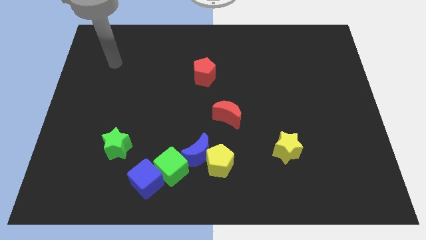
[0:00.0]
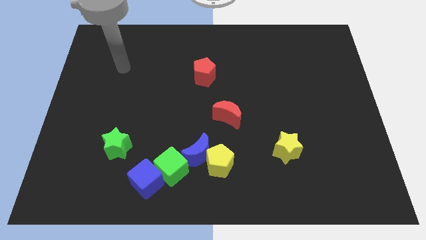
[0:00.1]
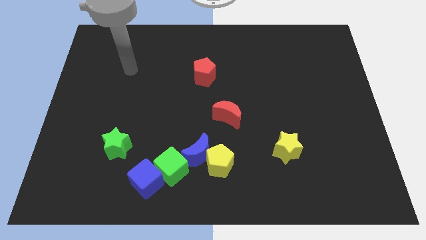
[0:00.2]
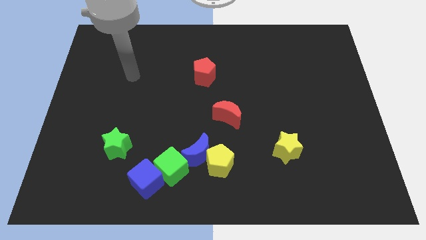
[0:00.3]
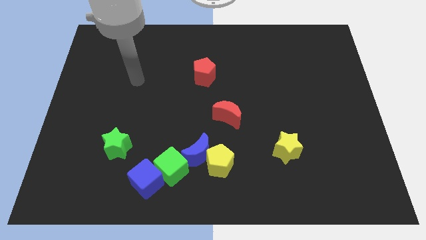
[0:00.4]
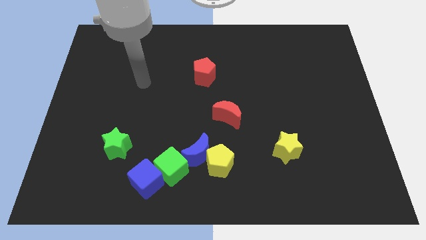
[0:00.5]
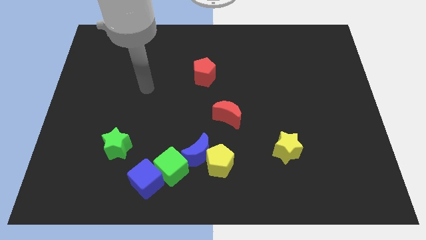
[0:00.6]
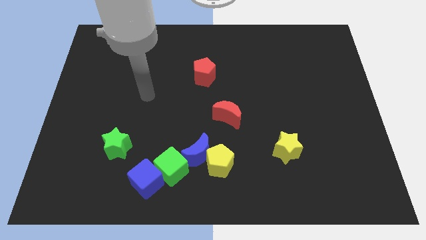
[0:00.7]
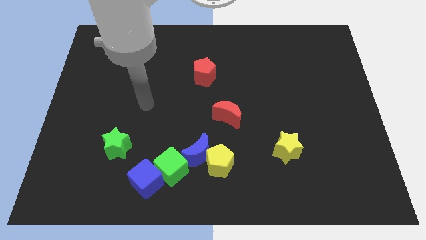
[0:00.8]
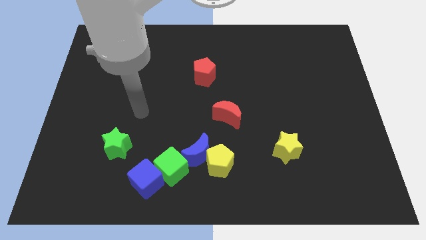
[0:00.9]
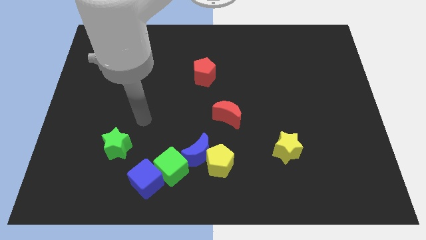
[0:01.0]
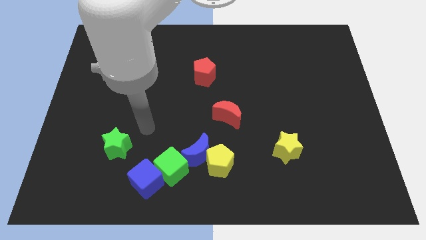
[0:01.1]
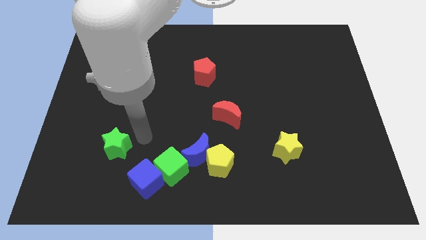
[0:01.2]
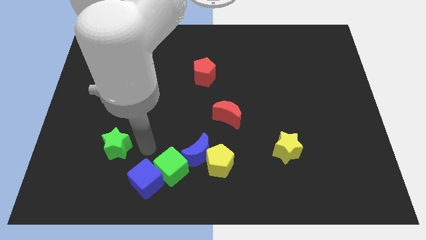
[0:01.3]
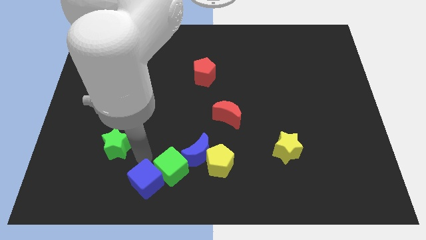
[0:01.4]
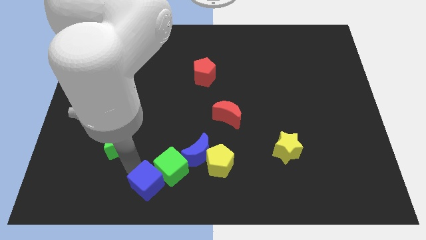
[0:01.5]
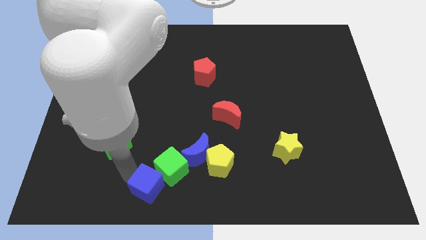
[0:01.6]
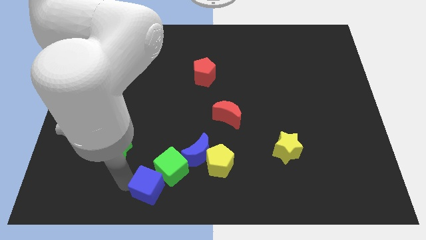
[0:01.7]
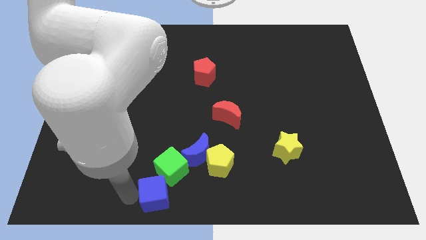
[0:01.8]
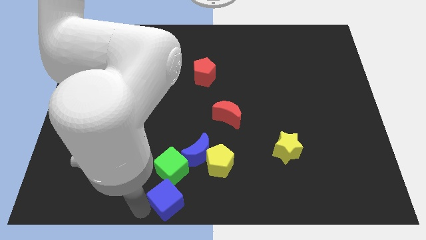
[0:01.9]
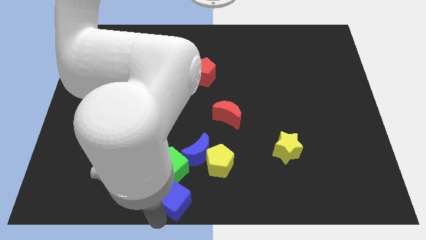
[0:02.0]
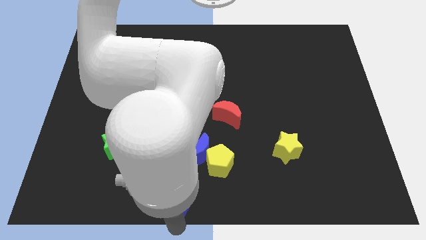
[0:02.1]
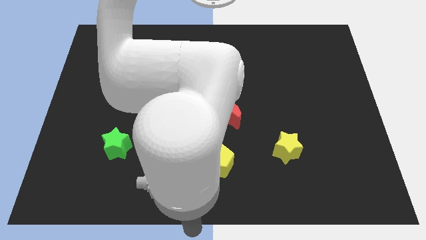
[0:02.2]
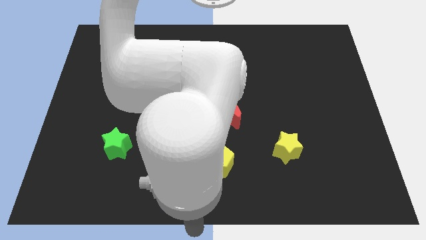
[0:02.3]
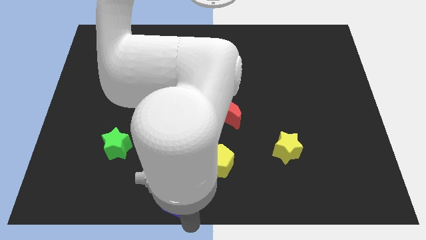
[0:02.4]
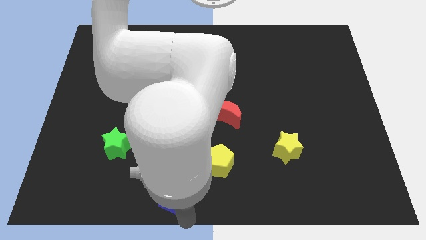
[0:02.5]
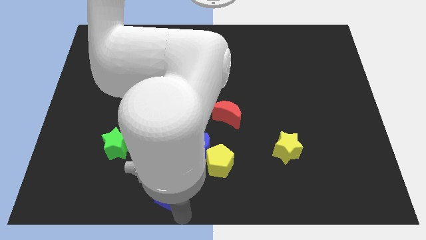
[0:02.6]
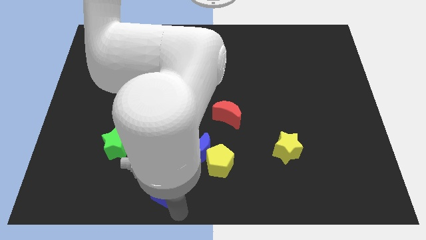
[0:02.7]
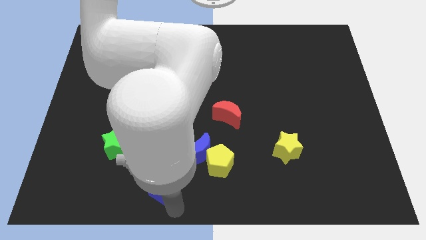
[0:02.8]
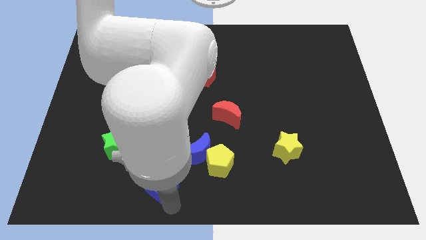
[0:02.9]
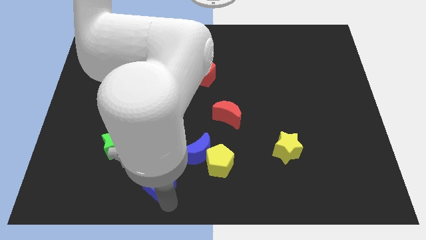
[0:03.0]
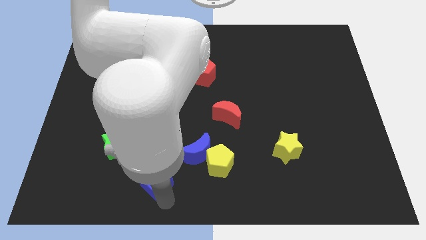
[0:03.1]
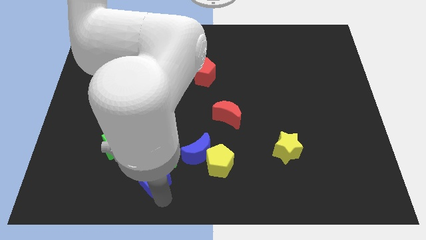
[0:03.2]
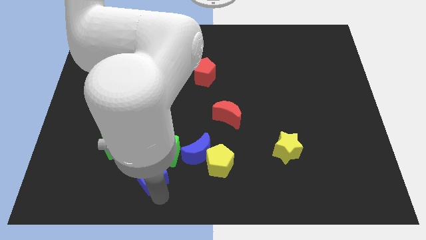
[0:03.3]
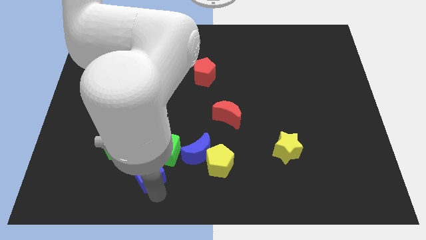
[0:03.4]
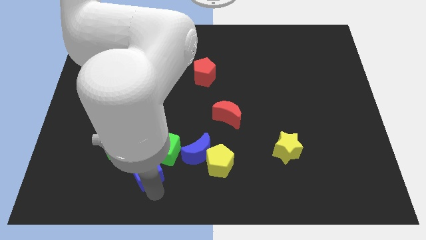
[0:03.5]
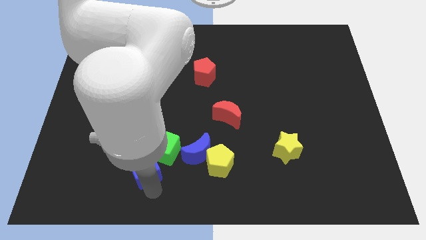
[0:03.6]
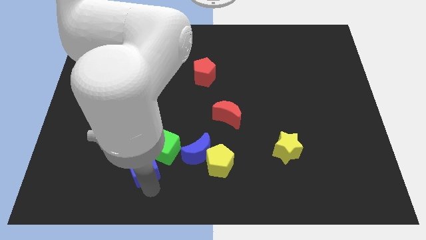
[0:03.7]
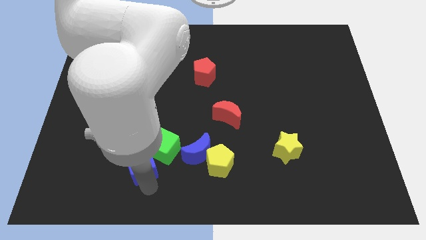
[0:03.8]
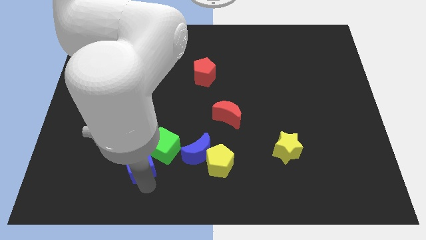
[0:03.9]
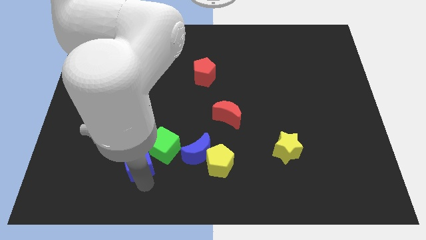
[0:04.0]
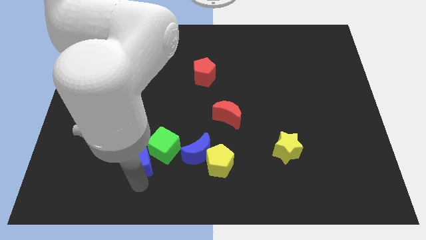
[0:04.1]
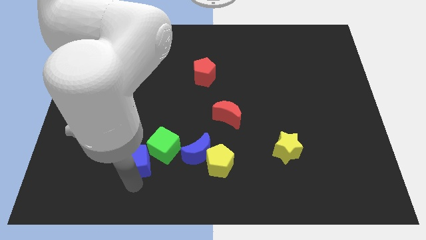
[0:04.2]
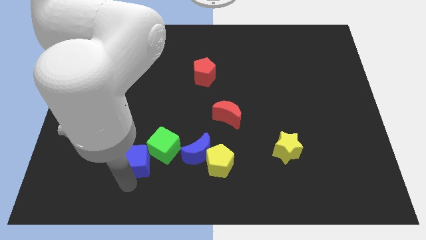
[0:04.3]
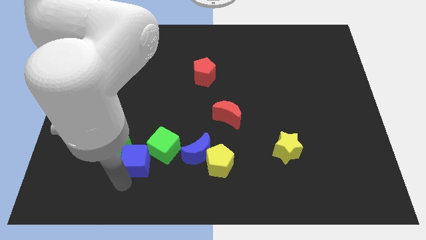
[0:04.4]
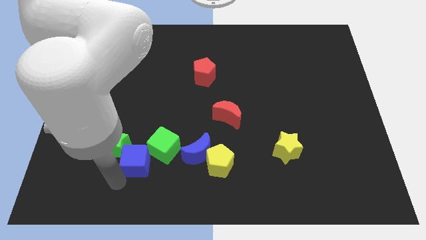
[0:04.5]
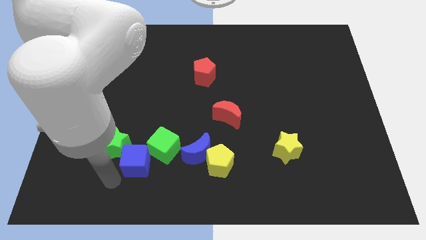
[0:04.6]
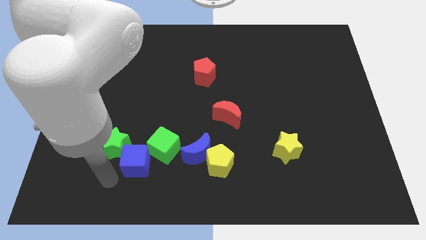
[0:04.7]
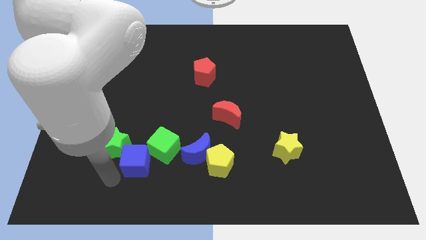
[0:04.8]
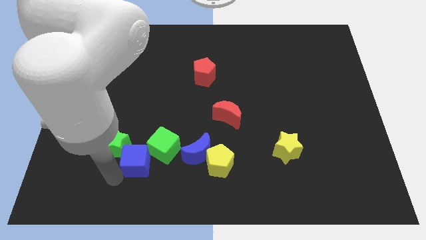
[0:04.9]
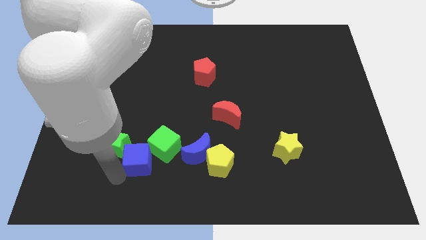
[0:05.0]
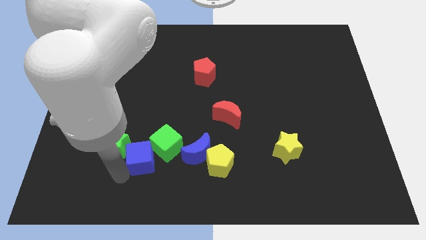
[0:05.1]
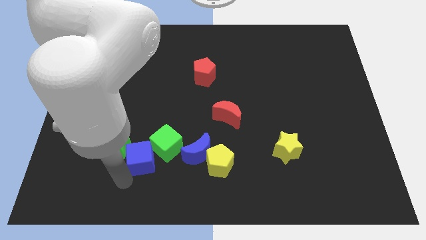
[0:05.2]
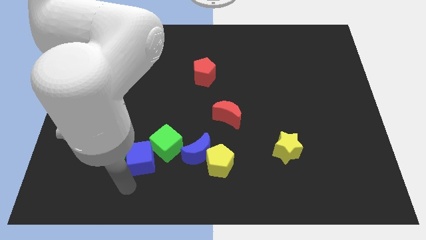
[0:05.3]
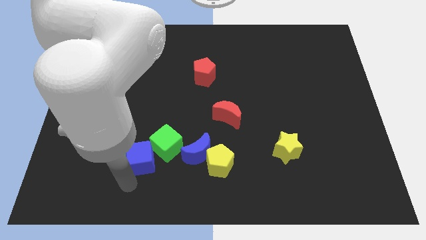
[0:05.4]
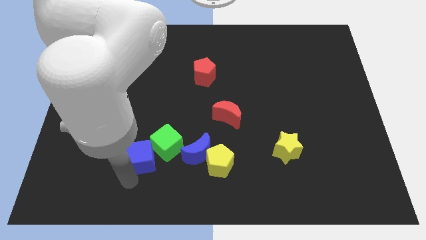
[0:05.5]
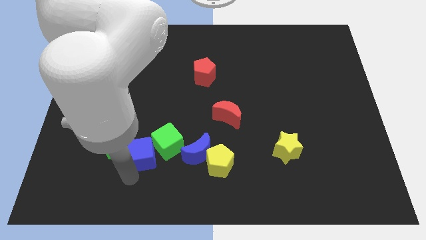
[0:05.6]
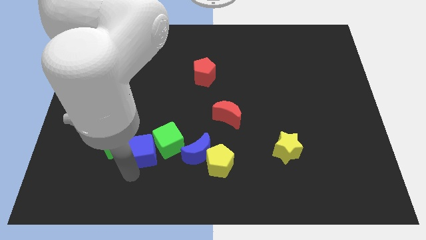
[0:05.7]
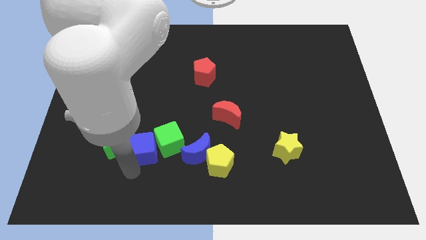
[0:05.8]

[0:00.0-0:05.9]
slightly move the blue cube upwards

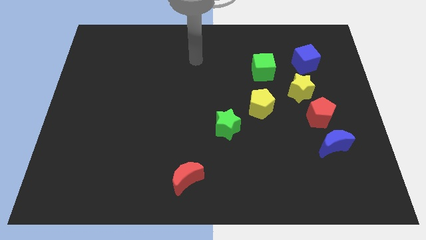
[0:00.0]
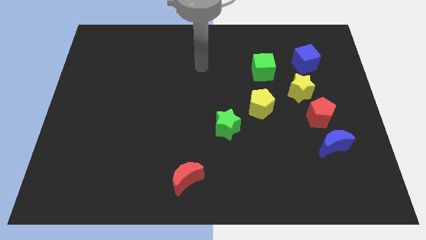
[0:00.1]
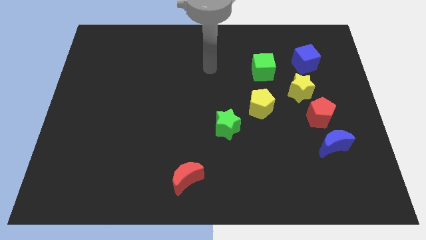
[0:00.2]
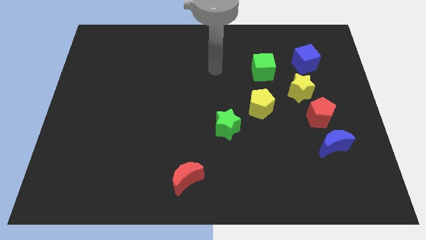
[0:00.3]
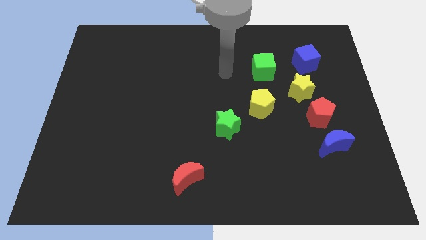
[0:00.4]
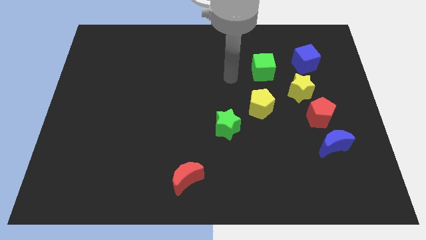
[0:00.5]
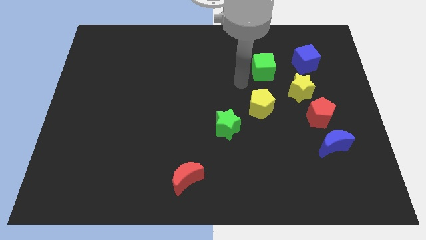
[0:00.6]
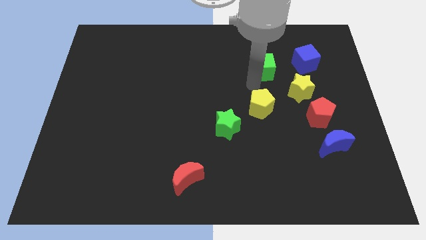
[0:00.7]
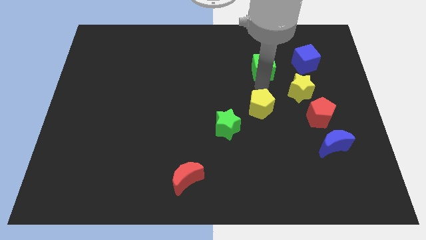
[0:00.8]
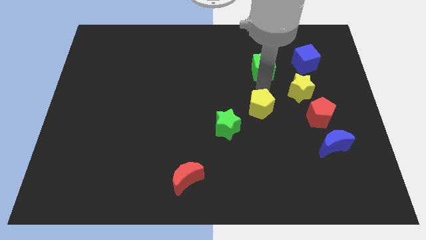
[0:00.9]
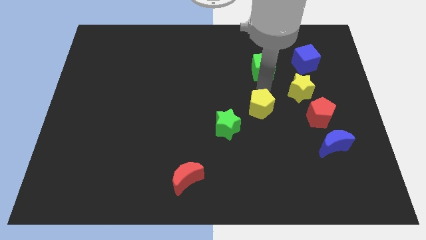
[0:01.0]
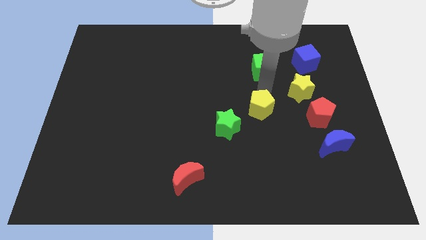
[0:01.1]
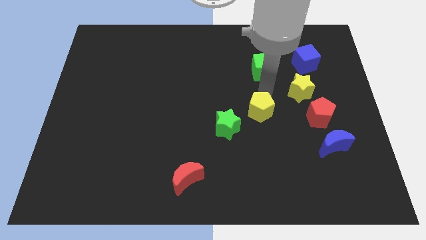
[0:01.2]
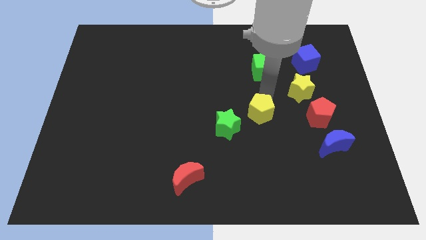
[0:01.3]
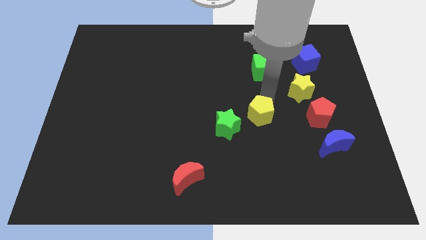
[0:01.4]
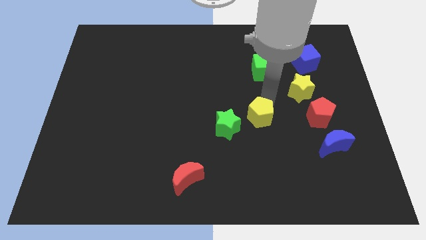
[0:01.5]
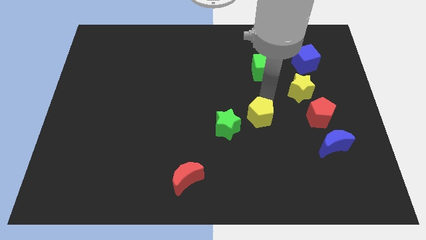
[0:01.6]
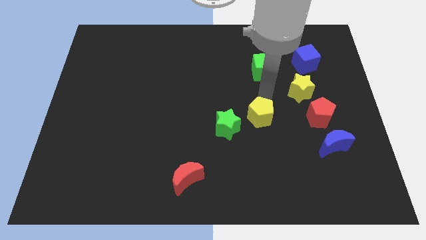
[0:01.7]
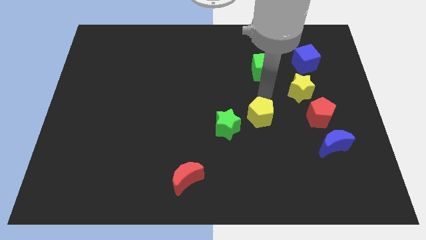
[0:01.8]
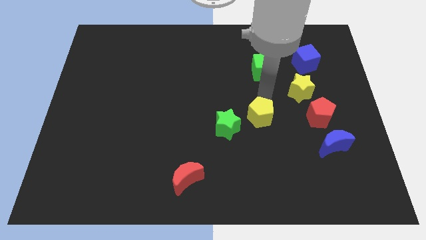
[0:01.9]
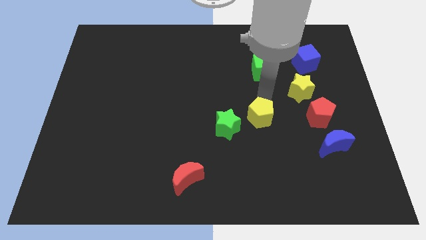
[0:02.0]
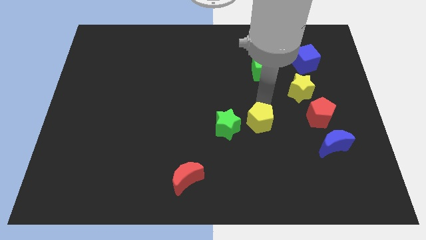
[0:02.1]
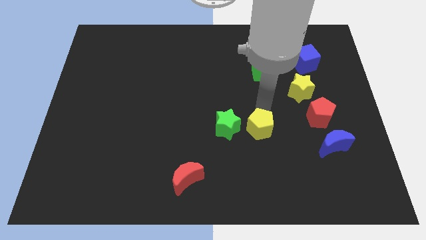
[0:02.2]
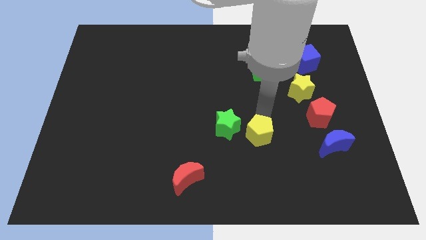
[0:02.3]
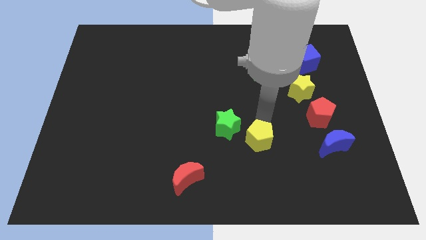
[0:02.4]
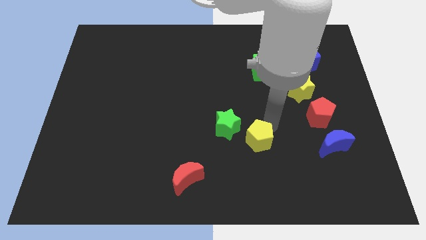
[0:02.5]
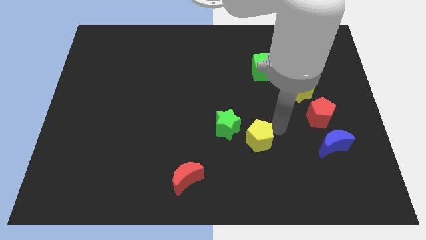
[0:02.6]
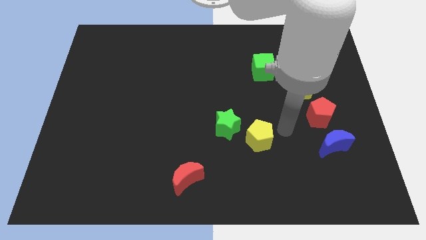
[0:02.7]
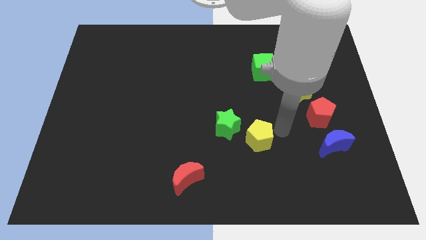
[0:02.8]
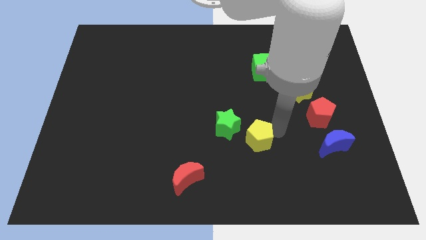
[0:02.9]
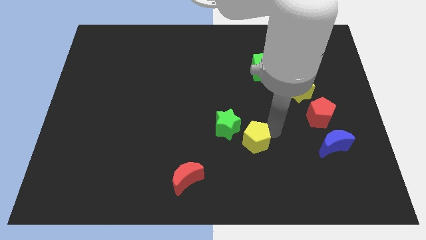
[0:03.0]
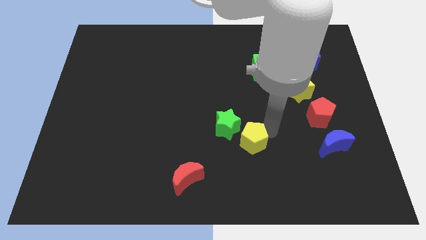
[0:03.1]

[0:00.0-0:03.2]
push the yellow pentagon a little down and to the left
